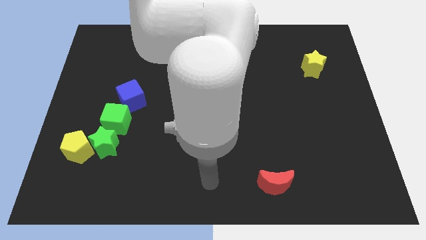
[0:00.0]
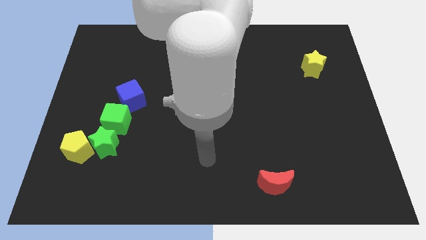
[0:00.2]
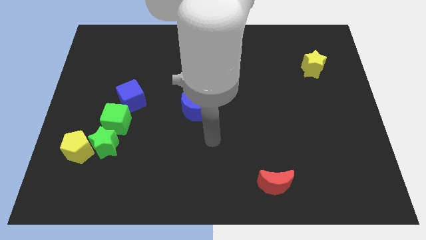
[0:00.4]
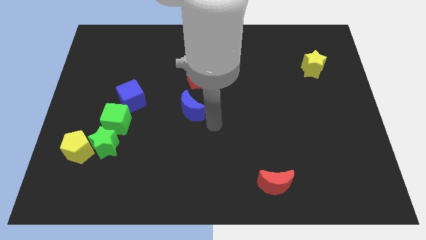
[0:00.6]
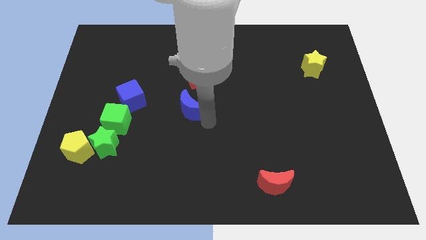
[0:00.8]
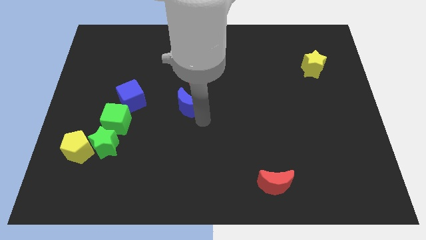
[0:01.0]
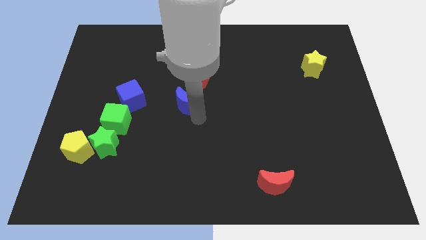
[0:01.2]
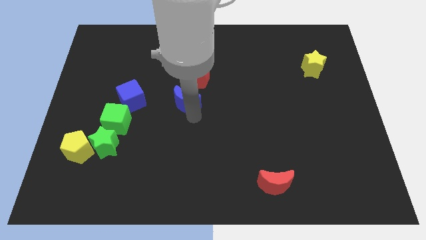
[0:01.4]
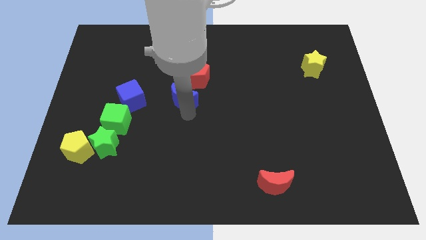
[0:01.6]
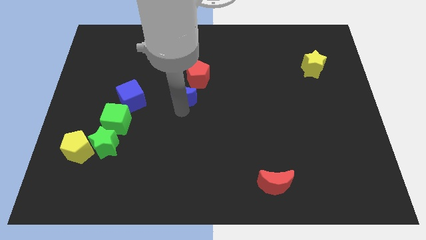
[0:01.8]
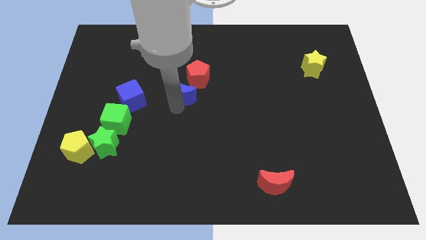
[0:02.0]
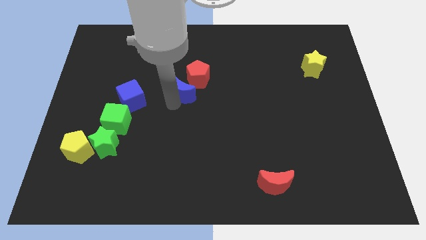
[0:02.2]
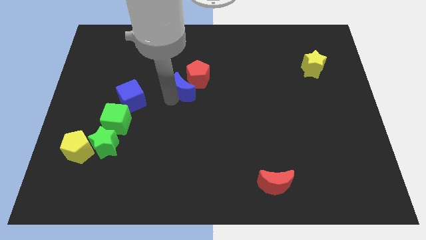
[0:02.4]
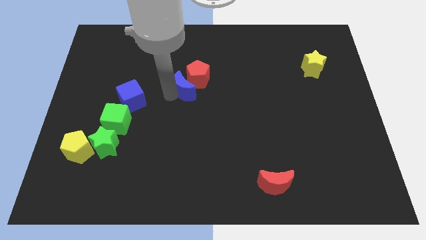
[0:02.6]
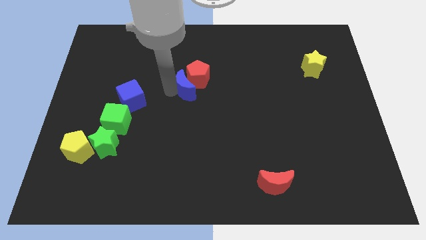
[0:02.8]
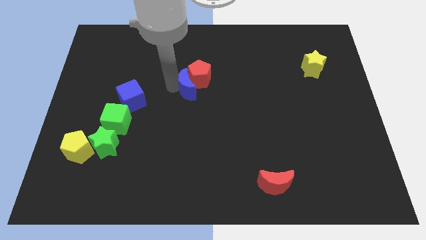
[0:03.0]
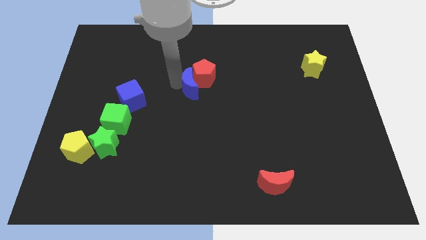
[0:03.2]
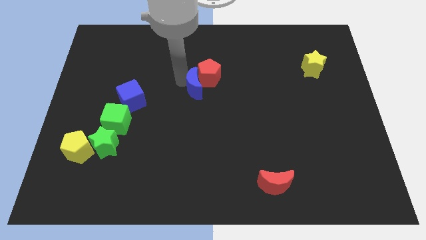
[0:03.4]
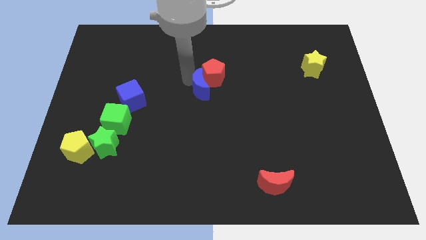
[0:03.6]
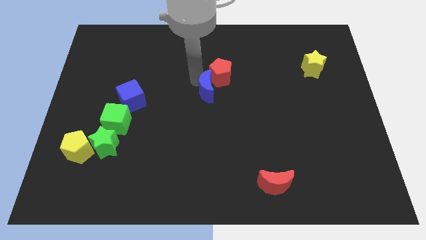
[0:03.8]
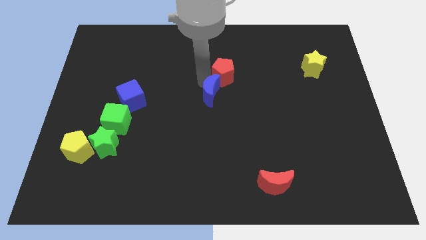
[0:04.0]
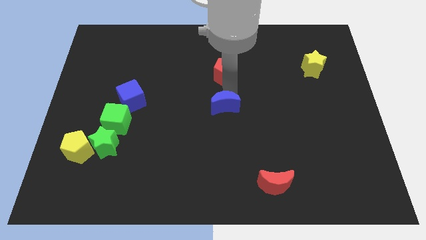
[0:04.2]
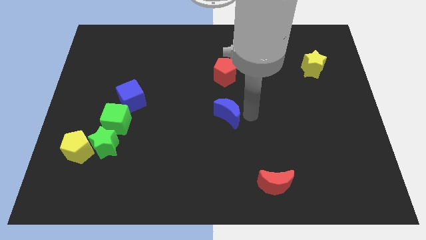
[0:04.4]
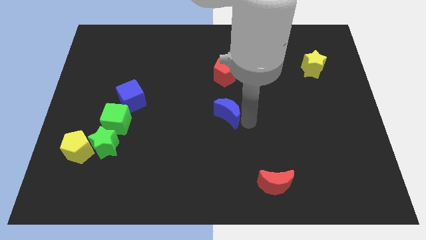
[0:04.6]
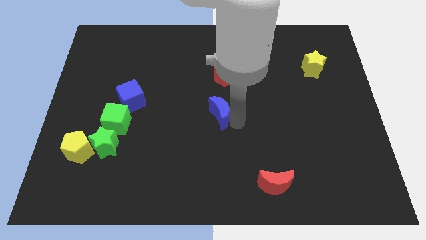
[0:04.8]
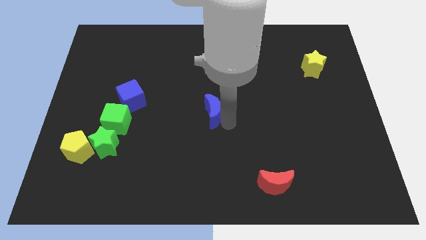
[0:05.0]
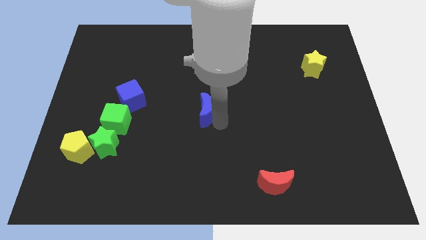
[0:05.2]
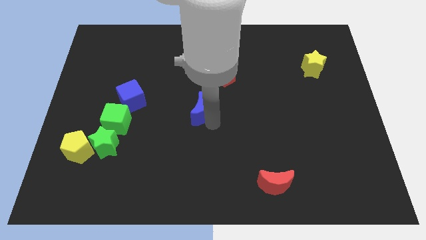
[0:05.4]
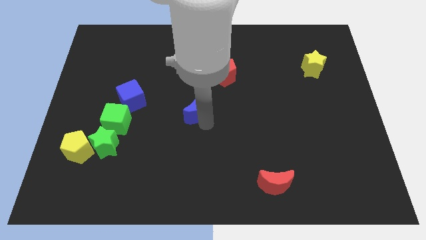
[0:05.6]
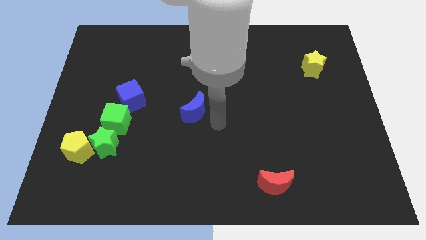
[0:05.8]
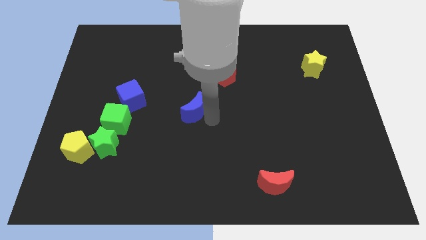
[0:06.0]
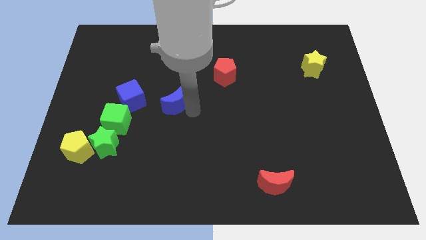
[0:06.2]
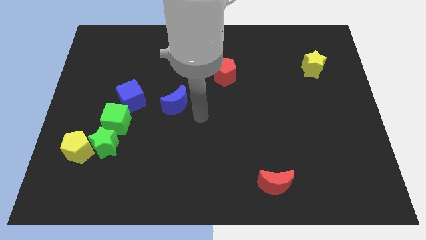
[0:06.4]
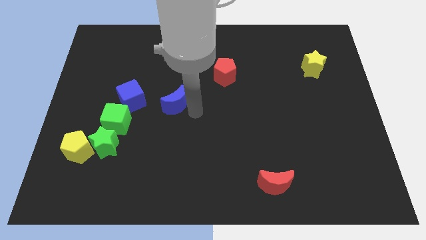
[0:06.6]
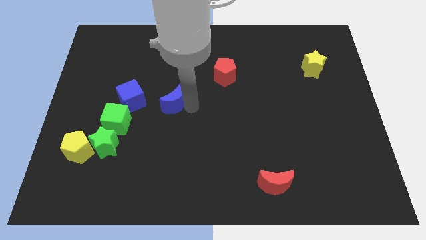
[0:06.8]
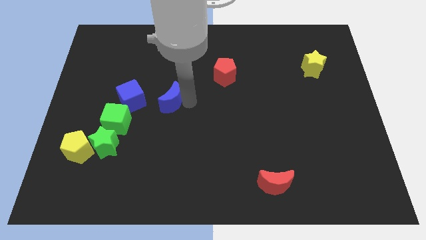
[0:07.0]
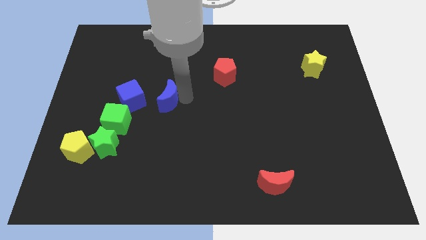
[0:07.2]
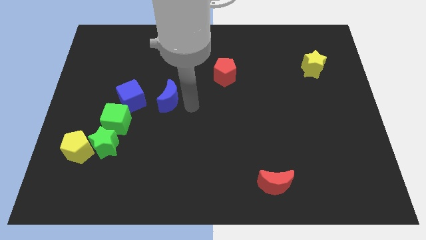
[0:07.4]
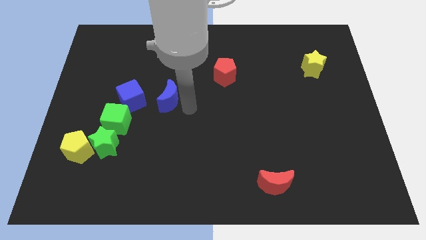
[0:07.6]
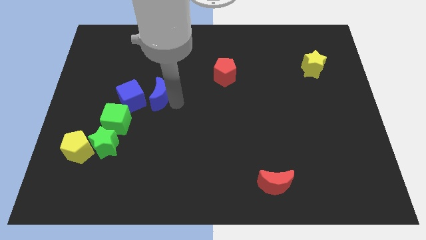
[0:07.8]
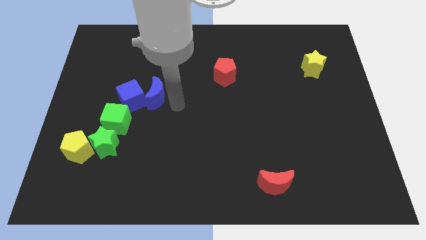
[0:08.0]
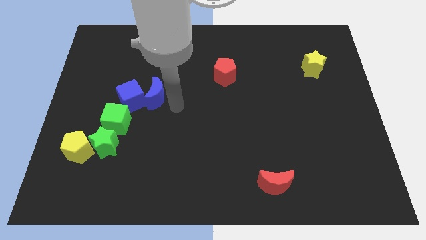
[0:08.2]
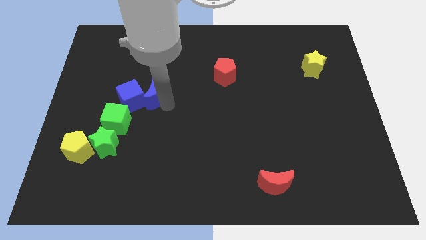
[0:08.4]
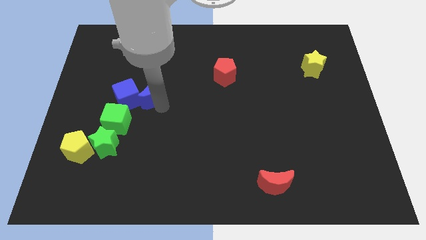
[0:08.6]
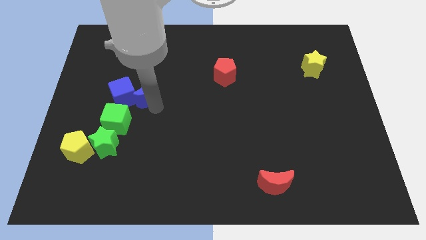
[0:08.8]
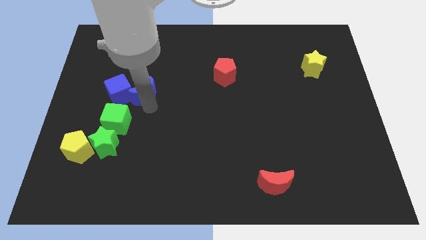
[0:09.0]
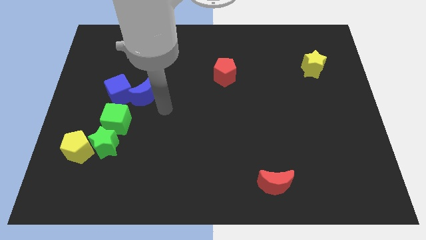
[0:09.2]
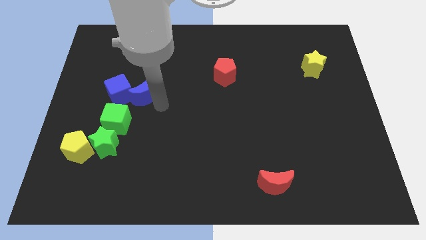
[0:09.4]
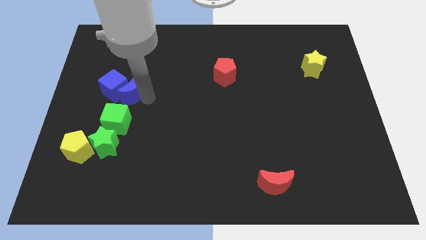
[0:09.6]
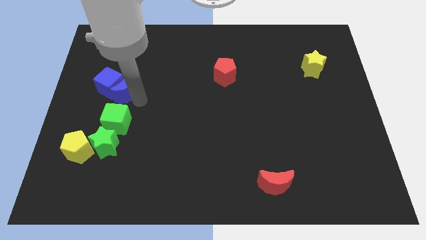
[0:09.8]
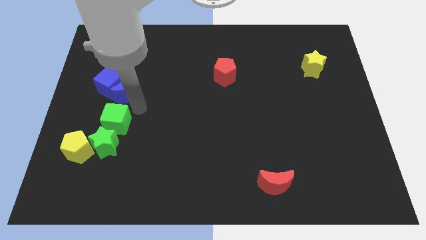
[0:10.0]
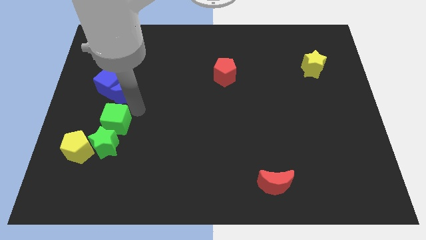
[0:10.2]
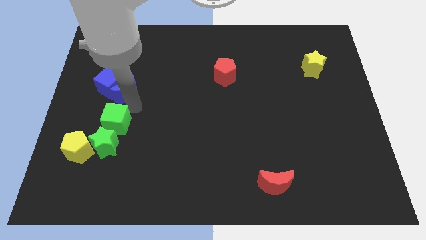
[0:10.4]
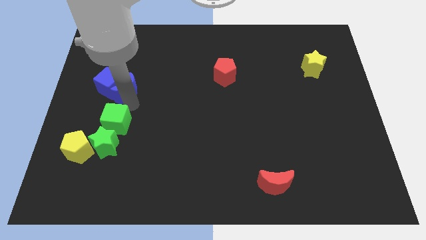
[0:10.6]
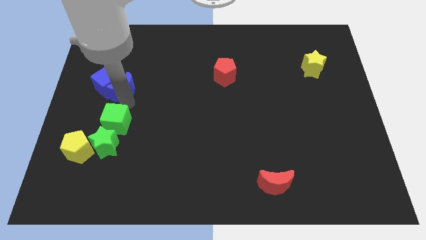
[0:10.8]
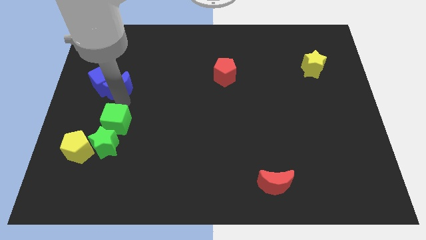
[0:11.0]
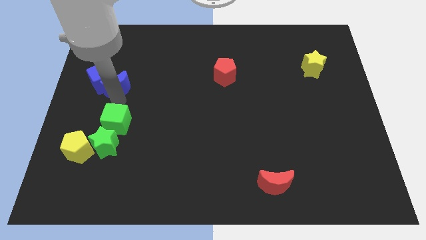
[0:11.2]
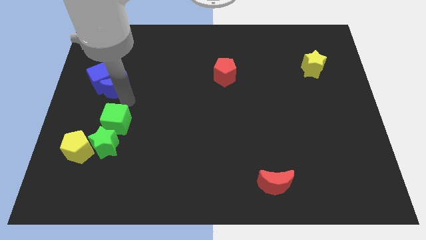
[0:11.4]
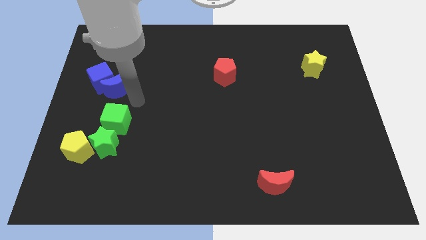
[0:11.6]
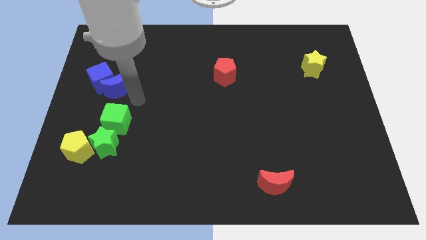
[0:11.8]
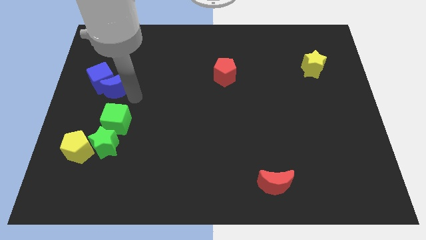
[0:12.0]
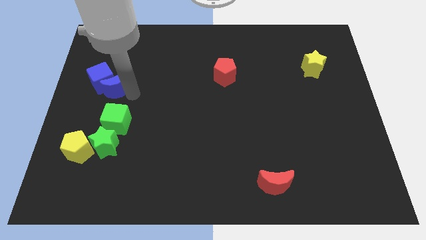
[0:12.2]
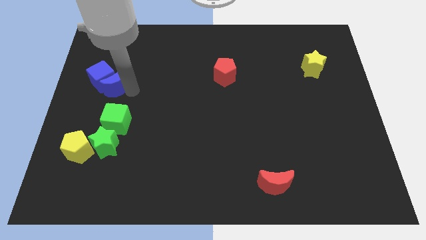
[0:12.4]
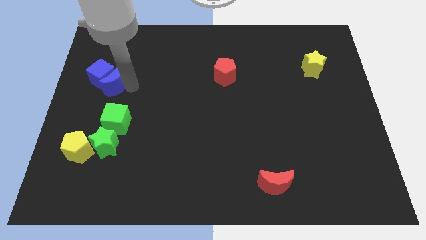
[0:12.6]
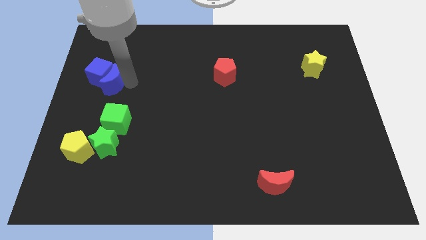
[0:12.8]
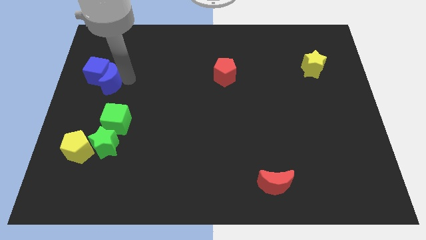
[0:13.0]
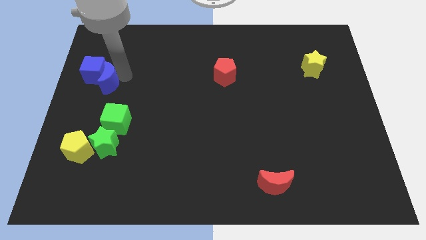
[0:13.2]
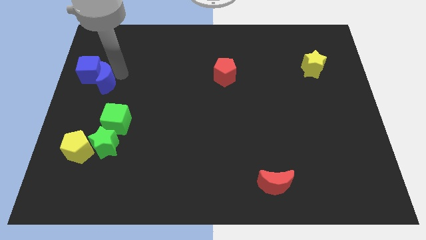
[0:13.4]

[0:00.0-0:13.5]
push the blue moon to the center left
